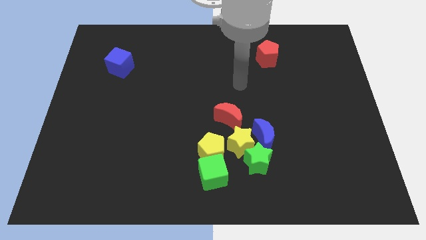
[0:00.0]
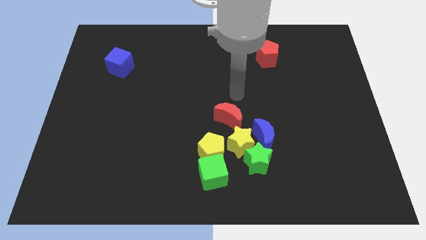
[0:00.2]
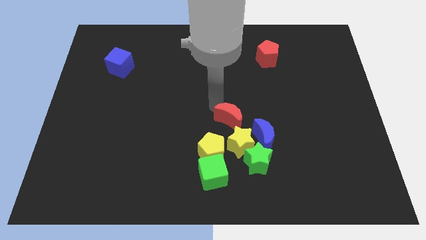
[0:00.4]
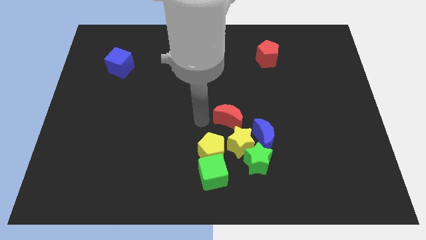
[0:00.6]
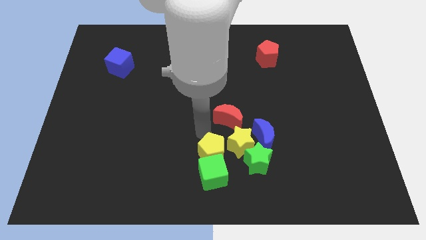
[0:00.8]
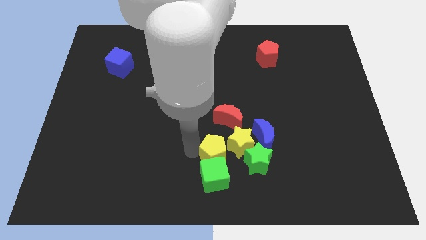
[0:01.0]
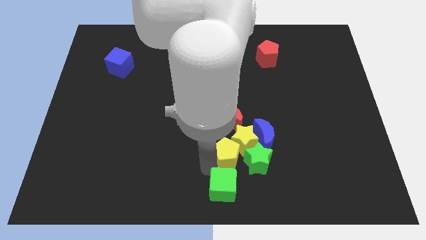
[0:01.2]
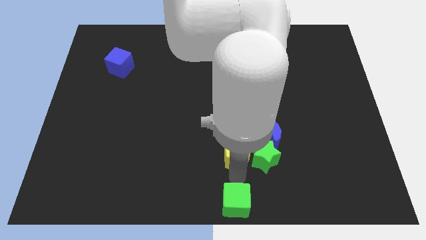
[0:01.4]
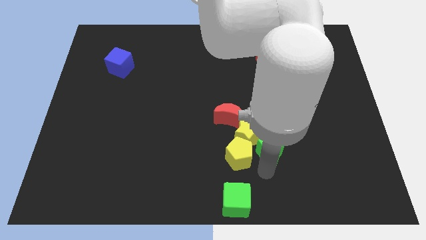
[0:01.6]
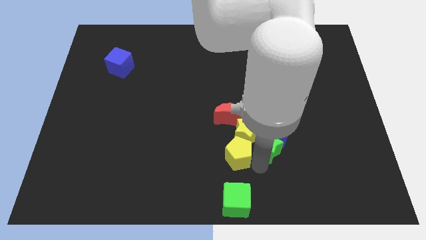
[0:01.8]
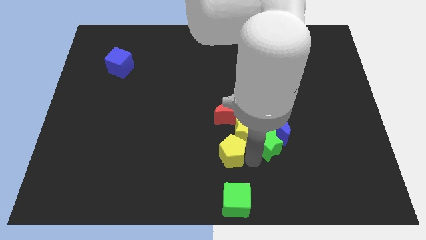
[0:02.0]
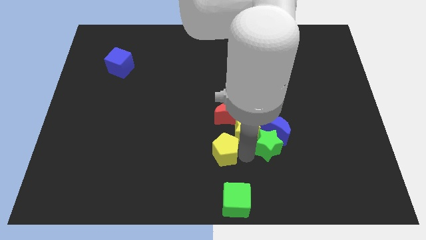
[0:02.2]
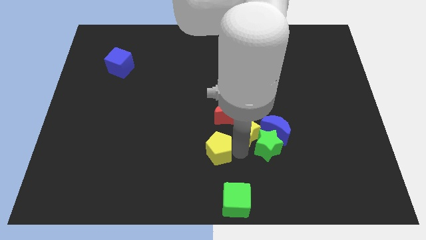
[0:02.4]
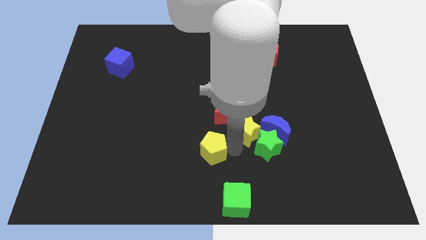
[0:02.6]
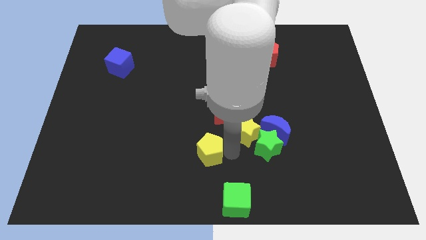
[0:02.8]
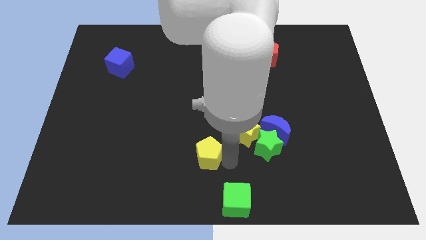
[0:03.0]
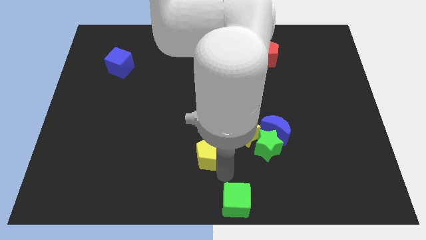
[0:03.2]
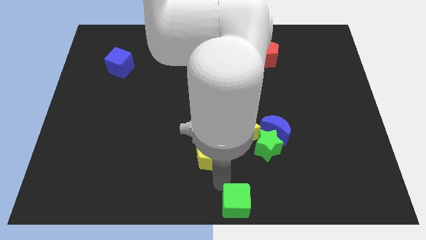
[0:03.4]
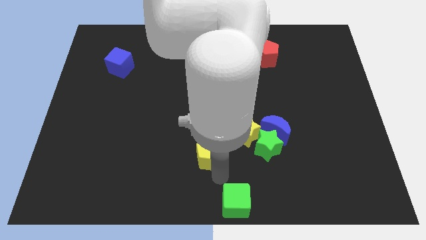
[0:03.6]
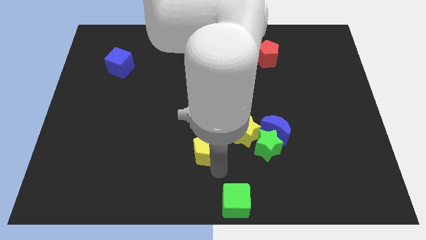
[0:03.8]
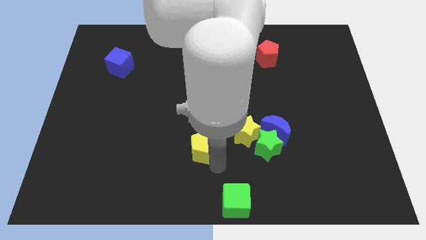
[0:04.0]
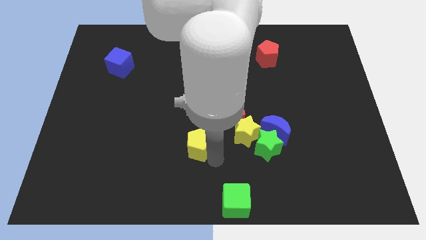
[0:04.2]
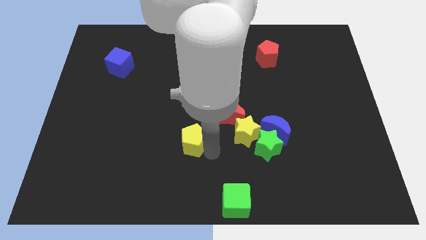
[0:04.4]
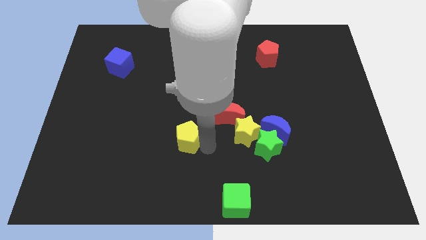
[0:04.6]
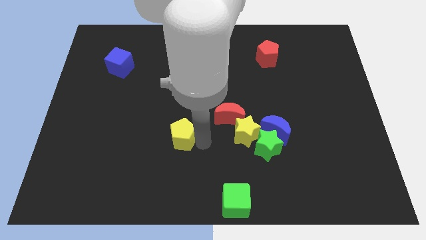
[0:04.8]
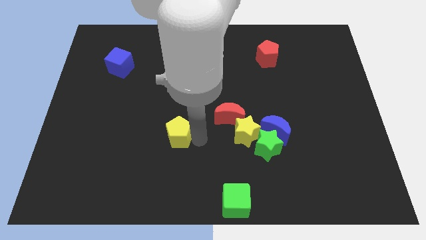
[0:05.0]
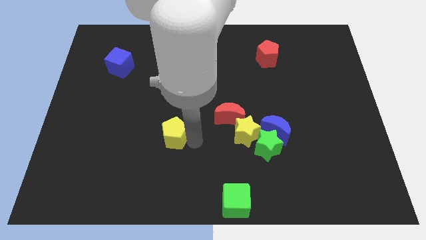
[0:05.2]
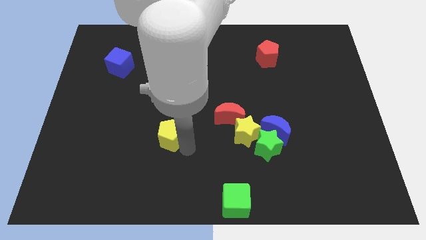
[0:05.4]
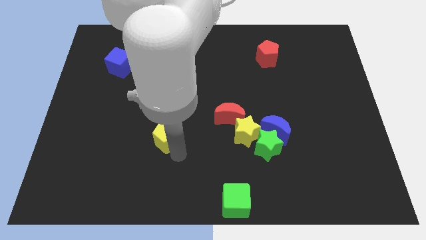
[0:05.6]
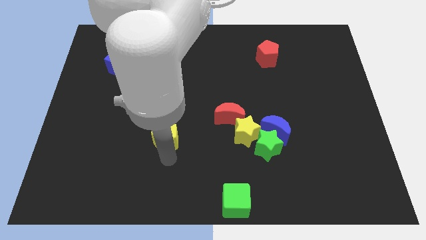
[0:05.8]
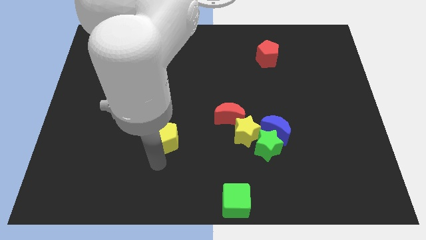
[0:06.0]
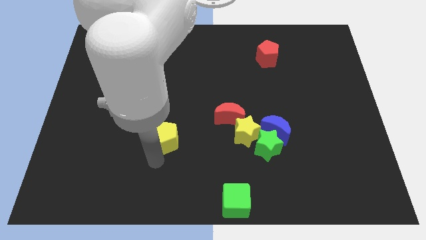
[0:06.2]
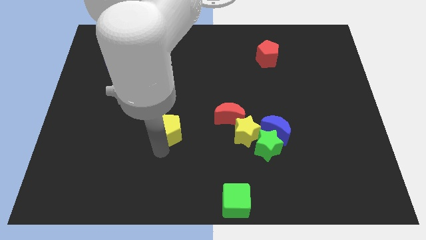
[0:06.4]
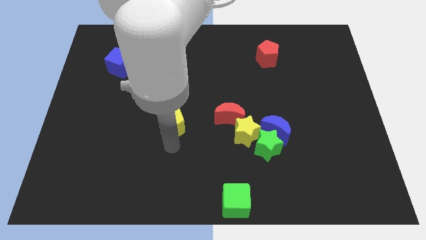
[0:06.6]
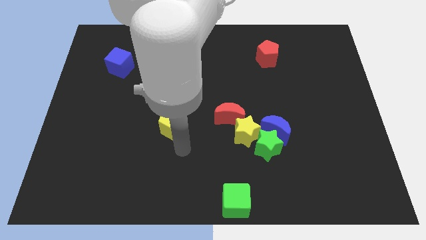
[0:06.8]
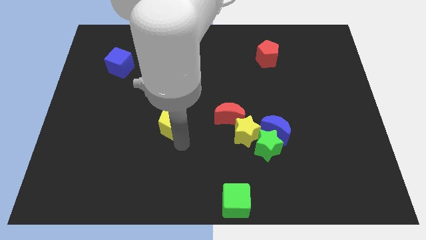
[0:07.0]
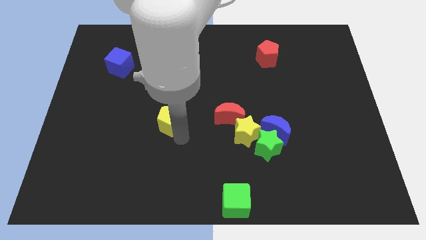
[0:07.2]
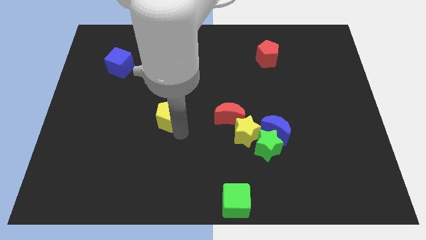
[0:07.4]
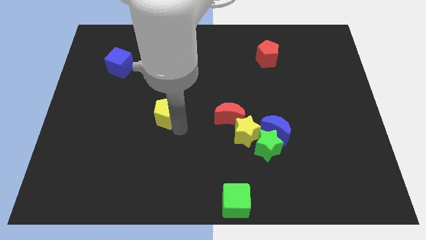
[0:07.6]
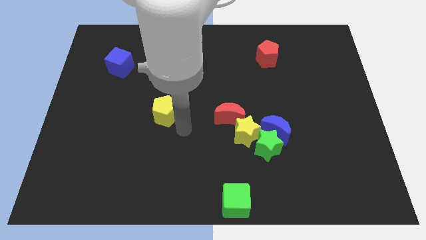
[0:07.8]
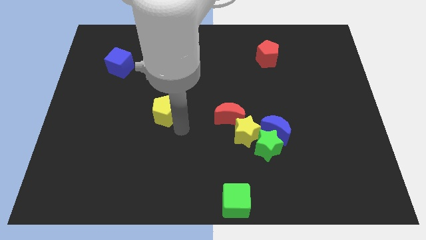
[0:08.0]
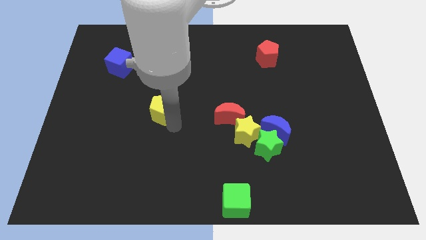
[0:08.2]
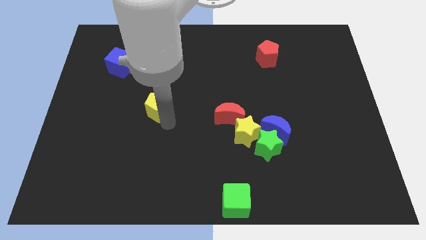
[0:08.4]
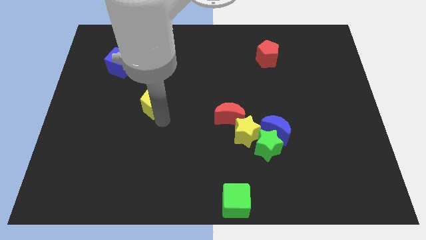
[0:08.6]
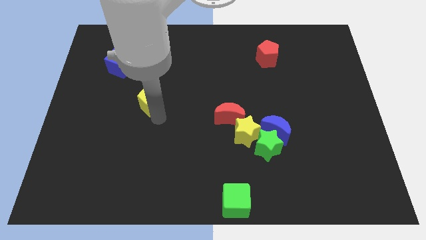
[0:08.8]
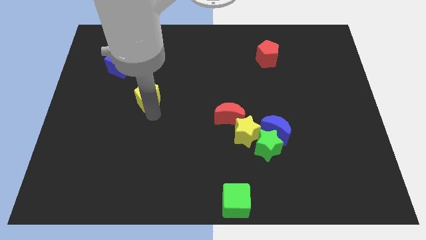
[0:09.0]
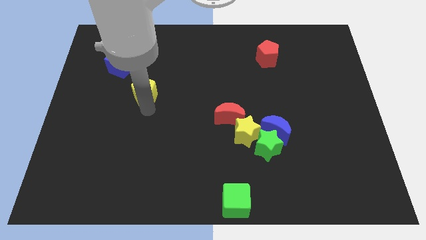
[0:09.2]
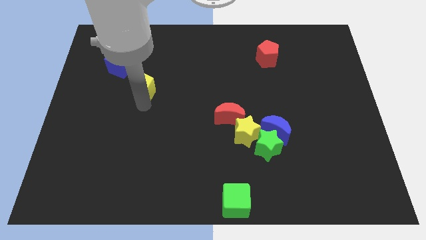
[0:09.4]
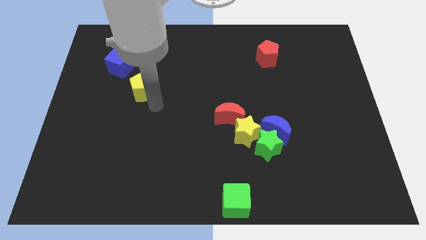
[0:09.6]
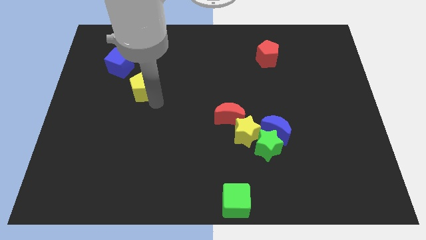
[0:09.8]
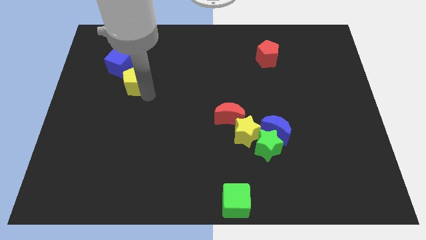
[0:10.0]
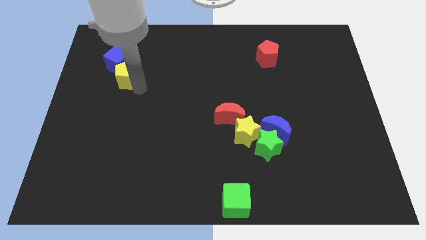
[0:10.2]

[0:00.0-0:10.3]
push the yellow pentagon to the blue cube

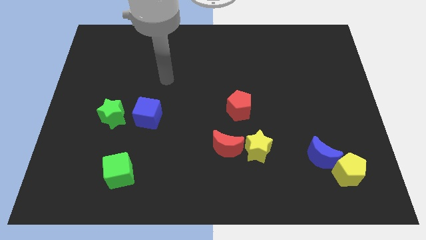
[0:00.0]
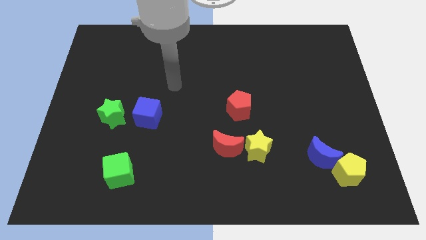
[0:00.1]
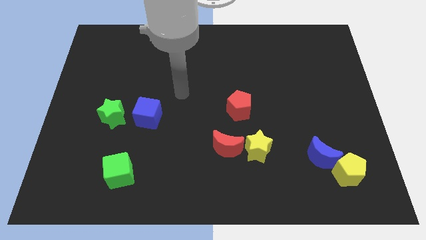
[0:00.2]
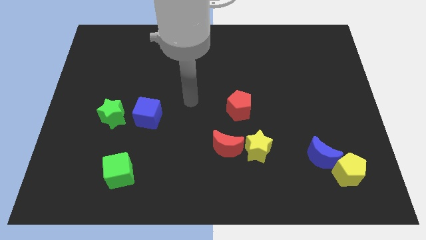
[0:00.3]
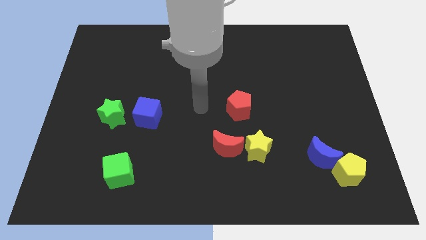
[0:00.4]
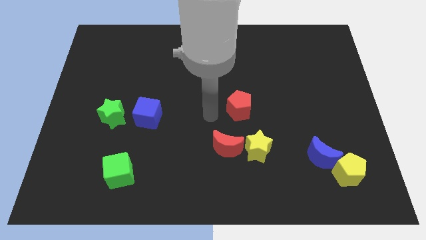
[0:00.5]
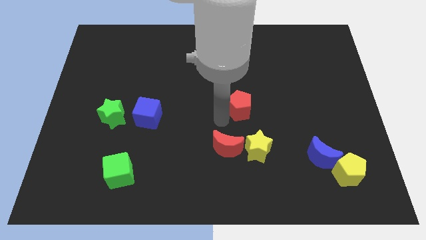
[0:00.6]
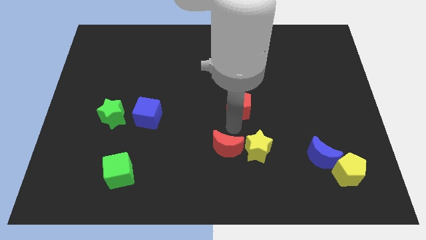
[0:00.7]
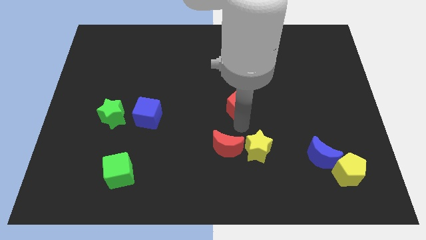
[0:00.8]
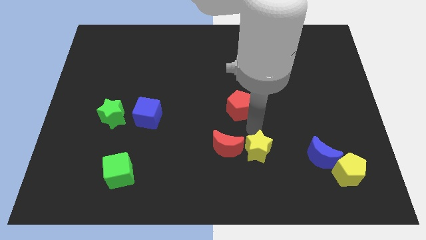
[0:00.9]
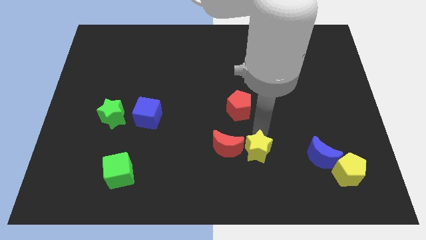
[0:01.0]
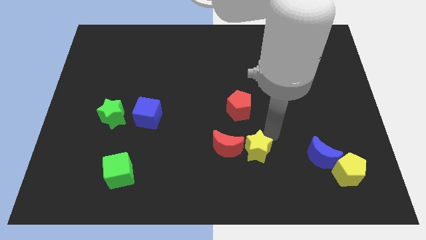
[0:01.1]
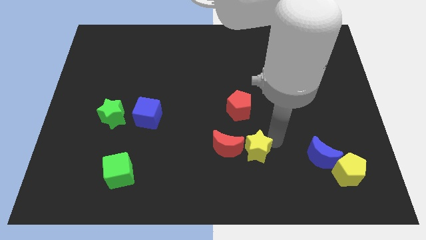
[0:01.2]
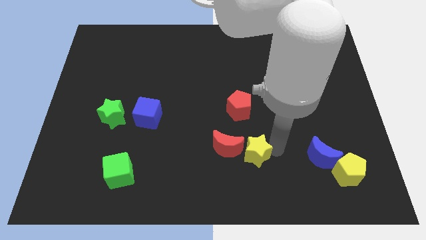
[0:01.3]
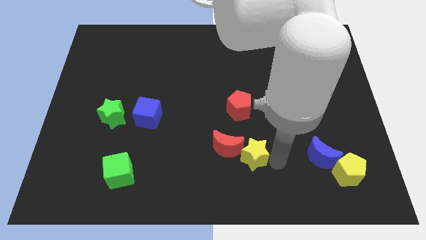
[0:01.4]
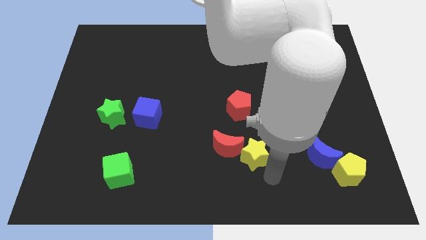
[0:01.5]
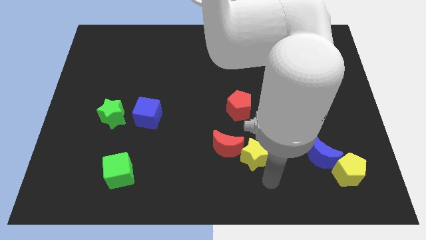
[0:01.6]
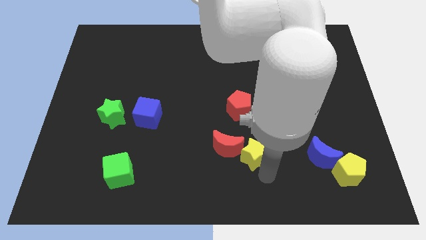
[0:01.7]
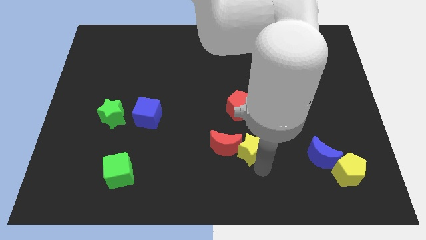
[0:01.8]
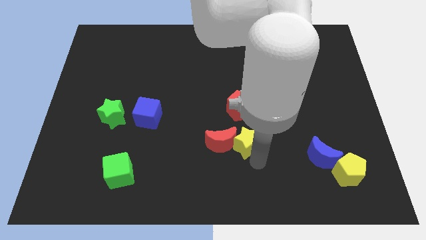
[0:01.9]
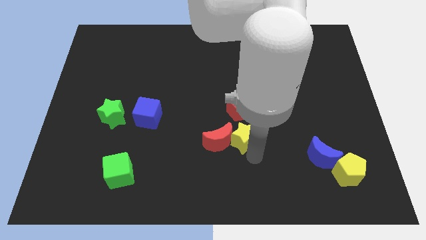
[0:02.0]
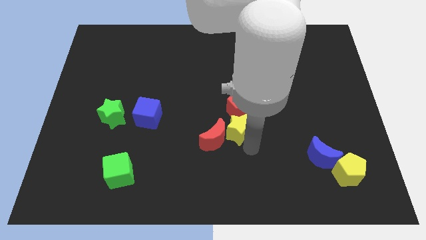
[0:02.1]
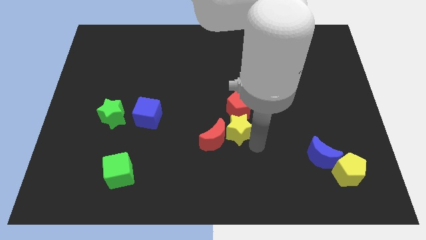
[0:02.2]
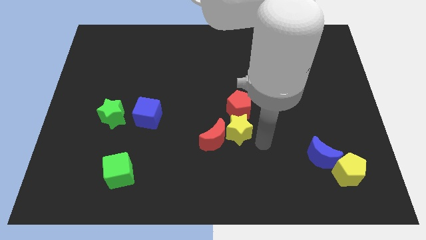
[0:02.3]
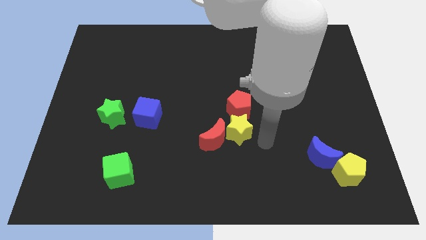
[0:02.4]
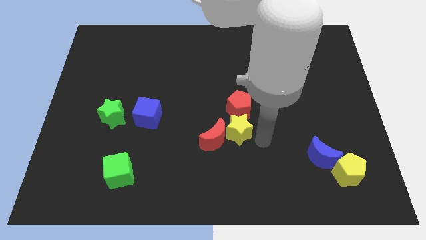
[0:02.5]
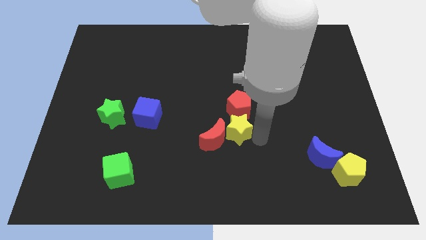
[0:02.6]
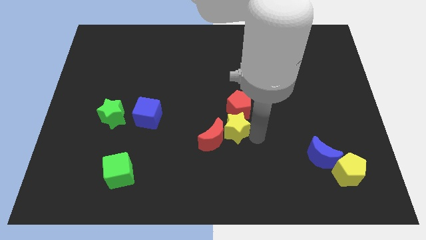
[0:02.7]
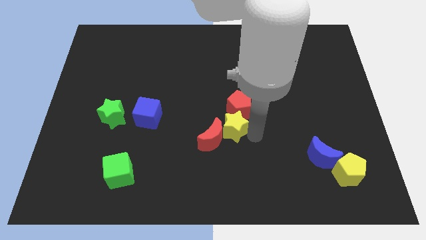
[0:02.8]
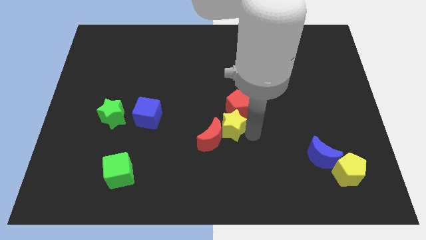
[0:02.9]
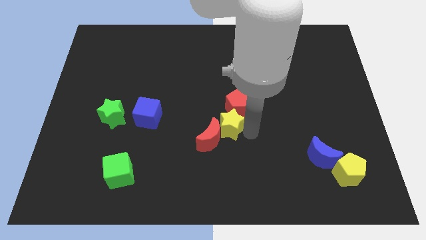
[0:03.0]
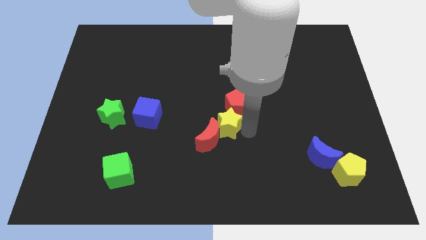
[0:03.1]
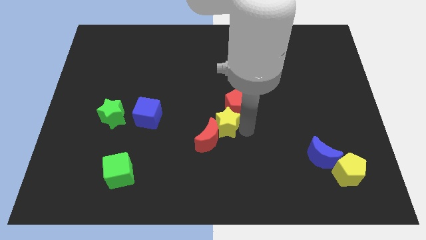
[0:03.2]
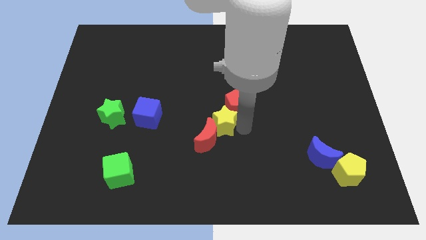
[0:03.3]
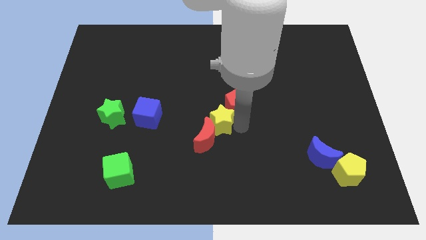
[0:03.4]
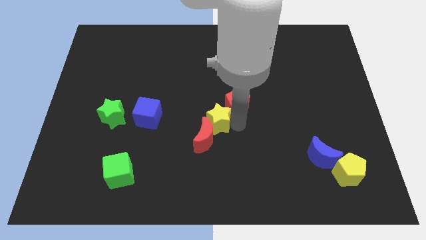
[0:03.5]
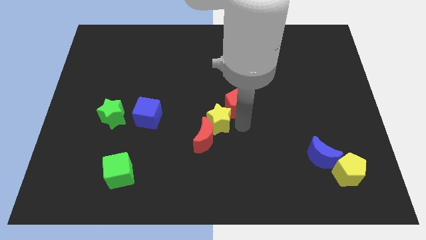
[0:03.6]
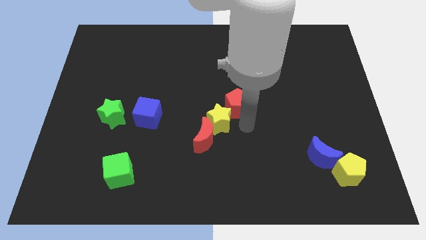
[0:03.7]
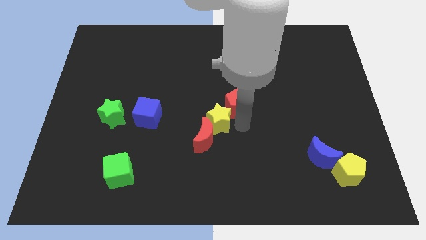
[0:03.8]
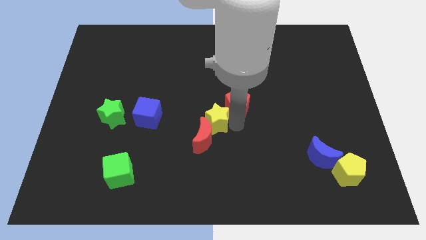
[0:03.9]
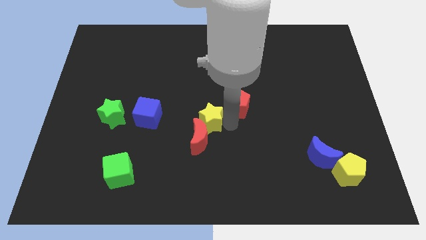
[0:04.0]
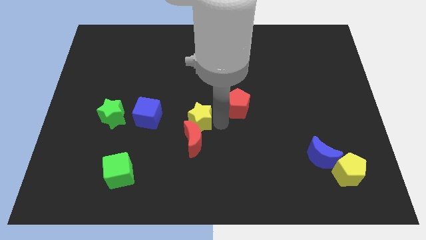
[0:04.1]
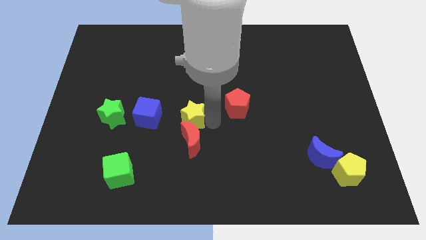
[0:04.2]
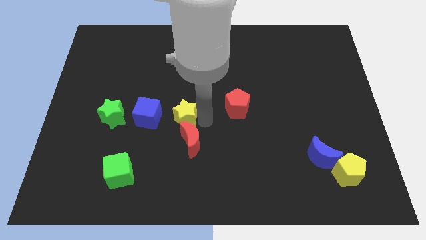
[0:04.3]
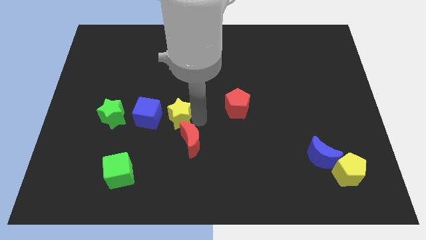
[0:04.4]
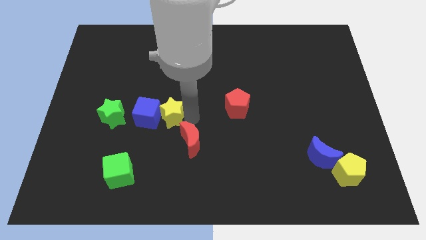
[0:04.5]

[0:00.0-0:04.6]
put the yellow star to the blue cube
